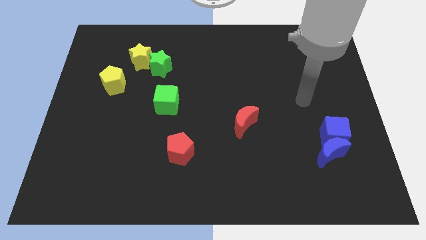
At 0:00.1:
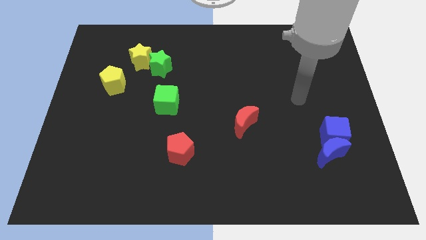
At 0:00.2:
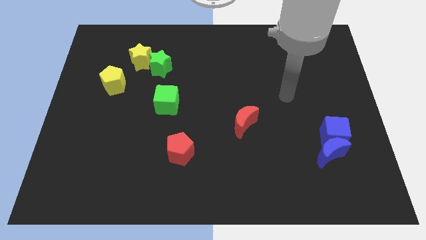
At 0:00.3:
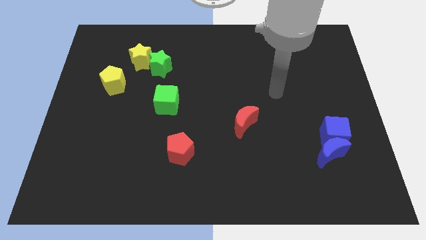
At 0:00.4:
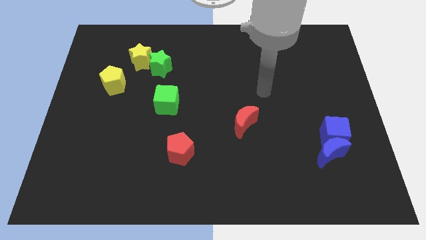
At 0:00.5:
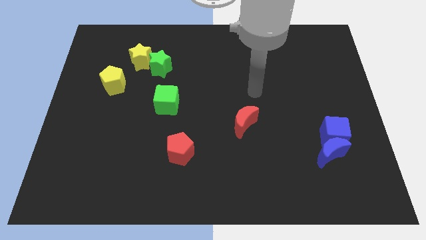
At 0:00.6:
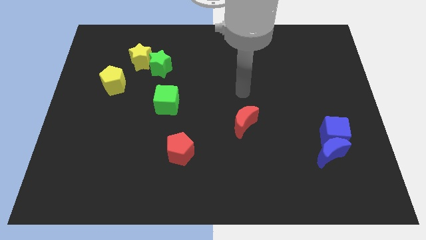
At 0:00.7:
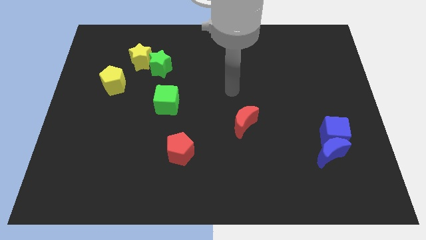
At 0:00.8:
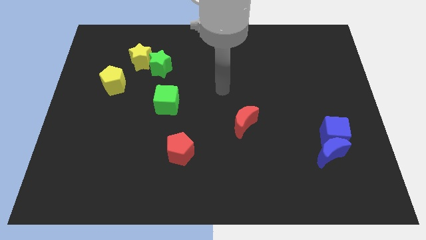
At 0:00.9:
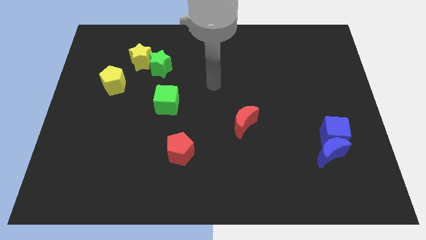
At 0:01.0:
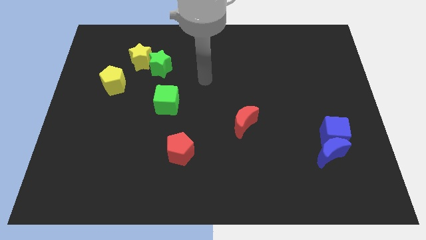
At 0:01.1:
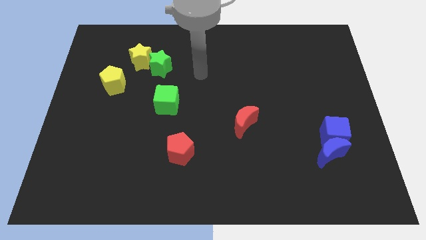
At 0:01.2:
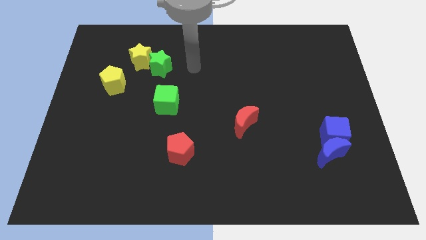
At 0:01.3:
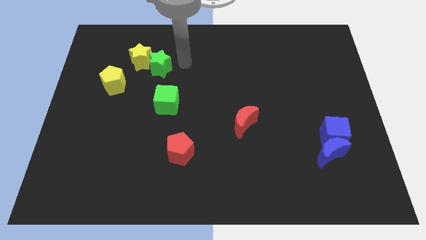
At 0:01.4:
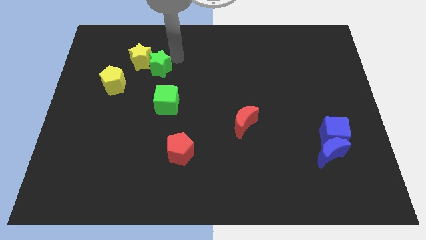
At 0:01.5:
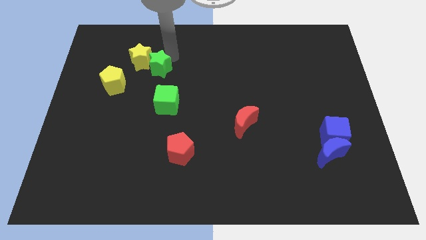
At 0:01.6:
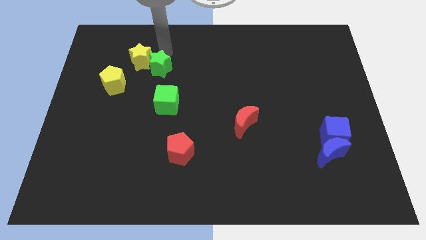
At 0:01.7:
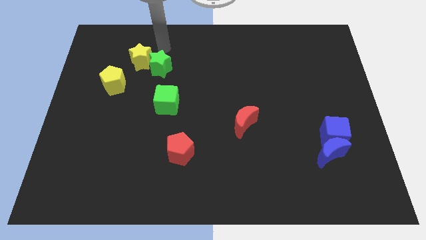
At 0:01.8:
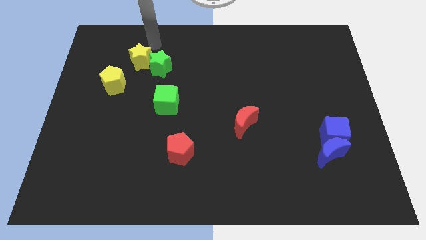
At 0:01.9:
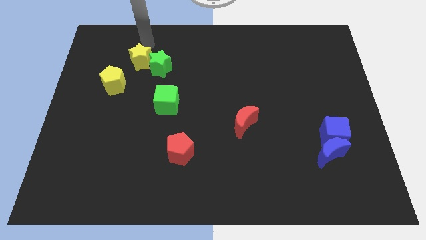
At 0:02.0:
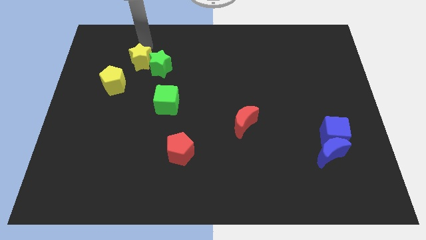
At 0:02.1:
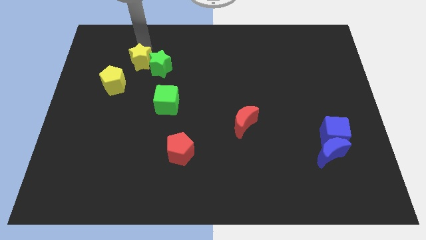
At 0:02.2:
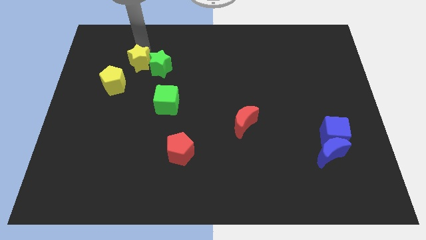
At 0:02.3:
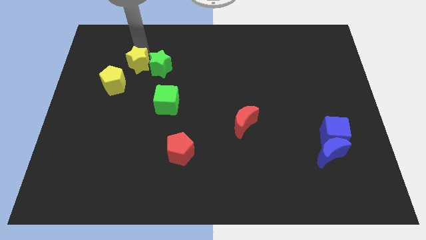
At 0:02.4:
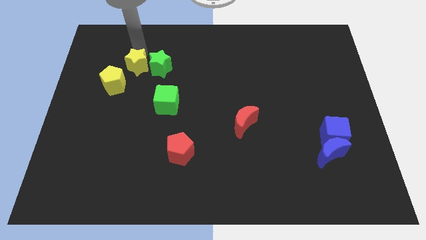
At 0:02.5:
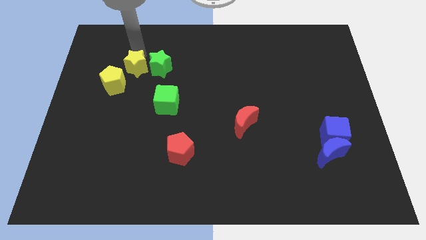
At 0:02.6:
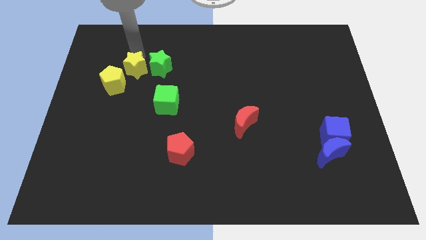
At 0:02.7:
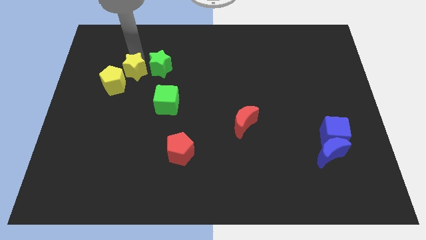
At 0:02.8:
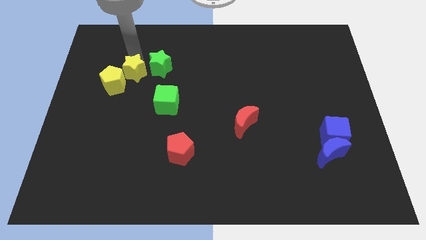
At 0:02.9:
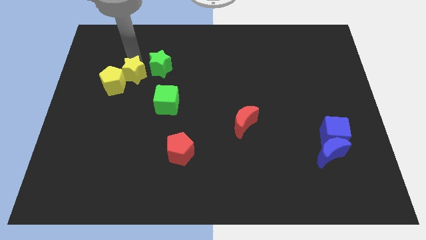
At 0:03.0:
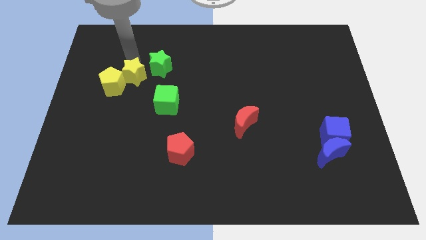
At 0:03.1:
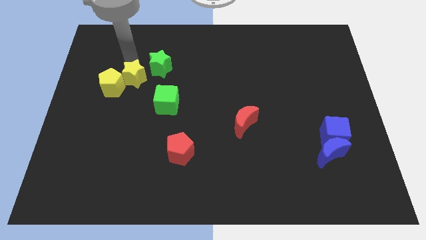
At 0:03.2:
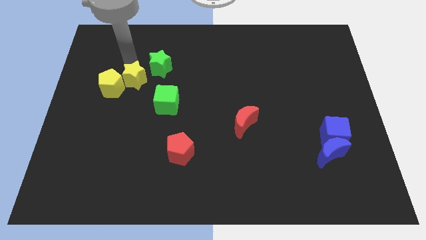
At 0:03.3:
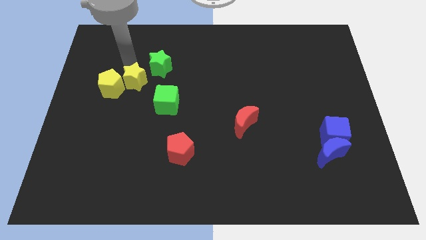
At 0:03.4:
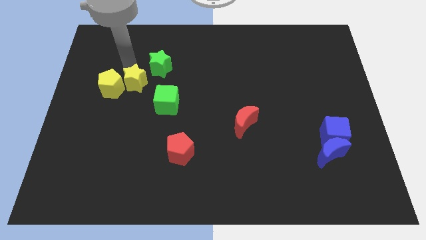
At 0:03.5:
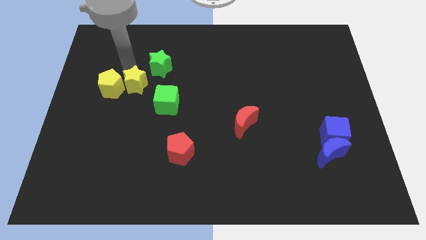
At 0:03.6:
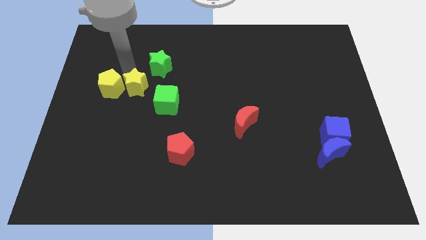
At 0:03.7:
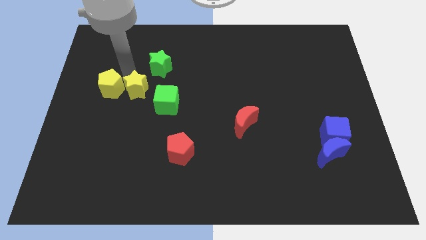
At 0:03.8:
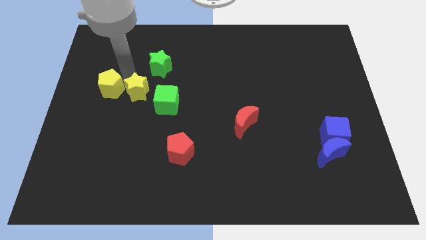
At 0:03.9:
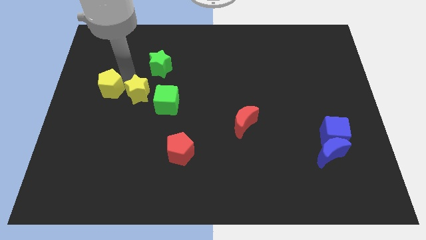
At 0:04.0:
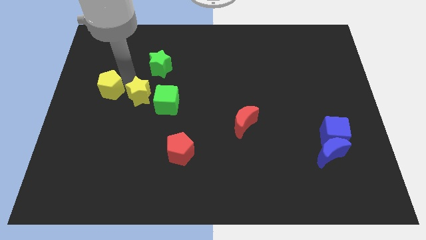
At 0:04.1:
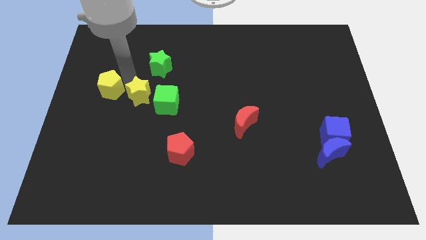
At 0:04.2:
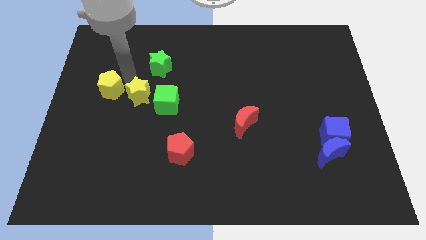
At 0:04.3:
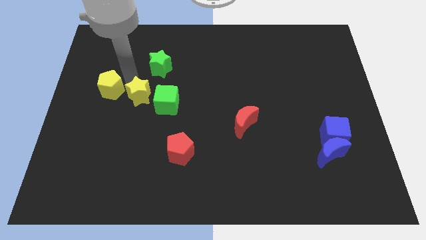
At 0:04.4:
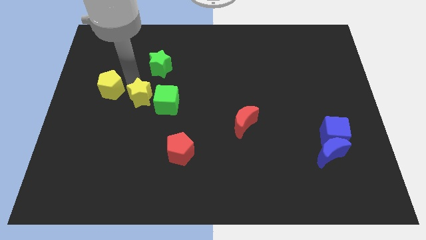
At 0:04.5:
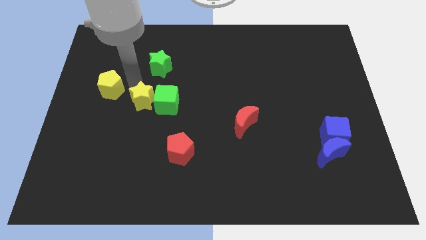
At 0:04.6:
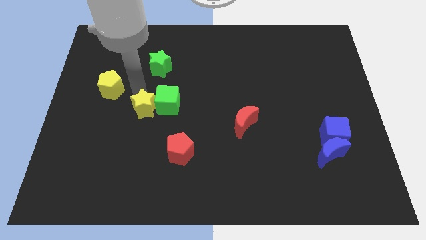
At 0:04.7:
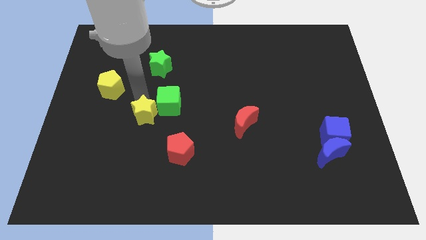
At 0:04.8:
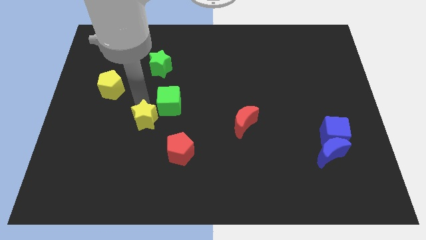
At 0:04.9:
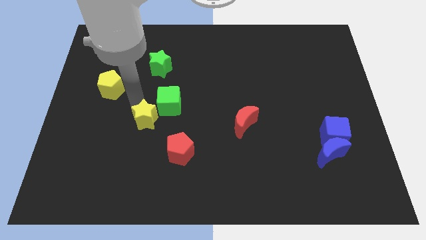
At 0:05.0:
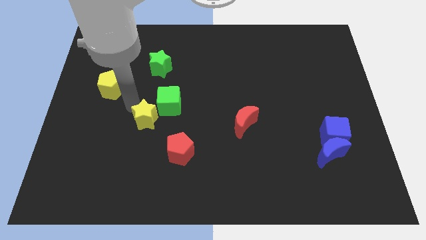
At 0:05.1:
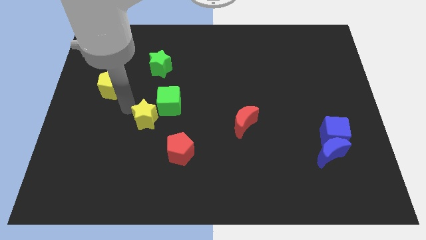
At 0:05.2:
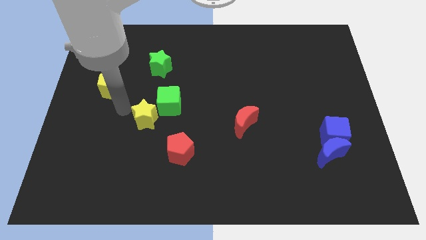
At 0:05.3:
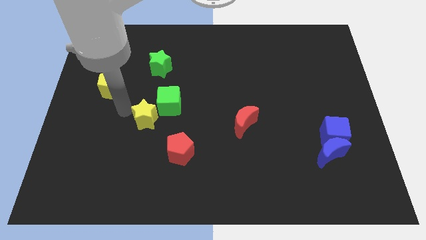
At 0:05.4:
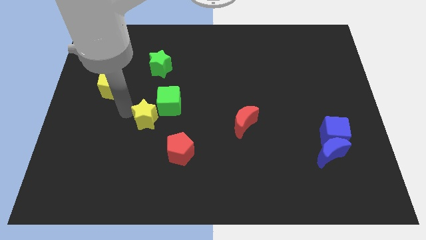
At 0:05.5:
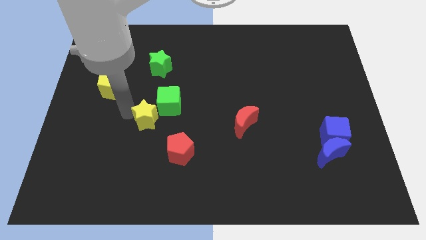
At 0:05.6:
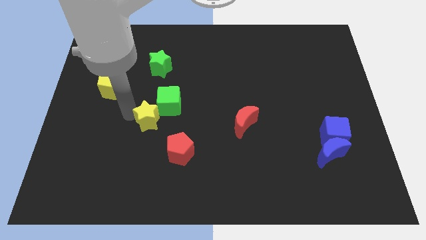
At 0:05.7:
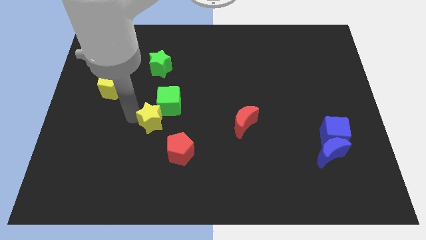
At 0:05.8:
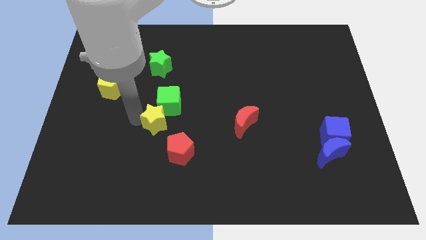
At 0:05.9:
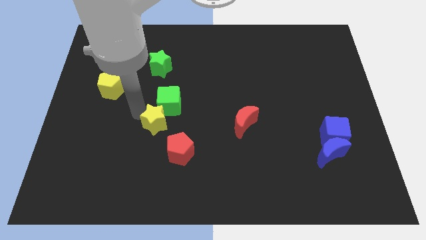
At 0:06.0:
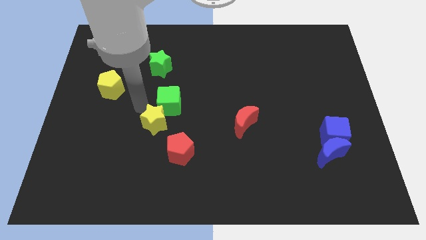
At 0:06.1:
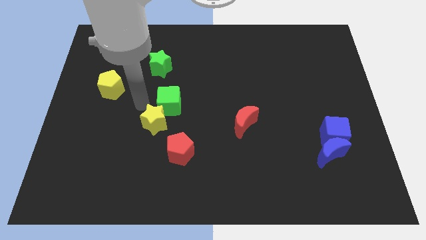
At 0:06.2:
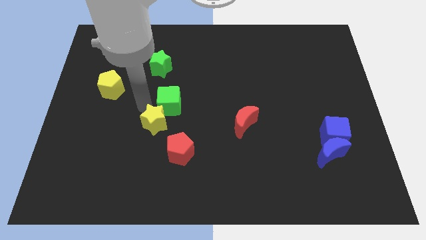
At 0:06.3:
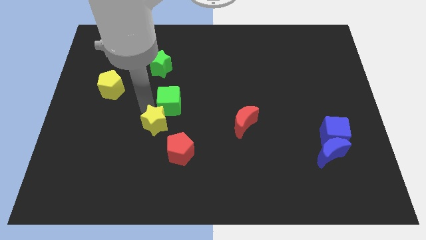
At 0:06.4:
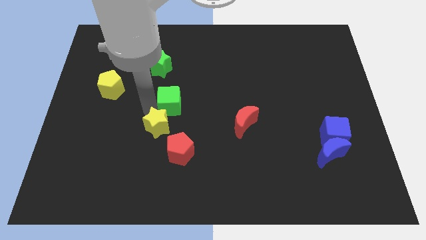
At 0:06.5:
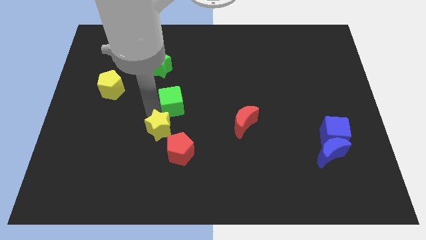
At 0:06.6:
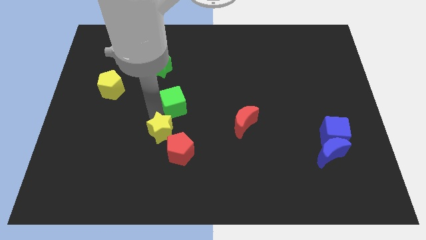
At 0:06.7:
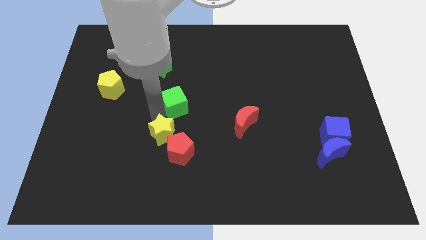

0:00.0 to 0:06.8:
put the yellow star next to the red pentagon

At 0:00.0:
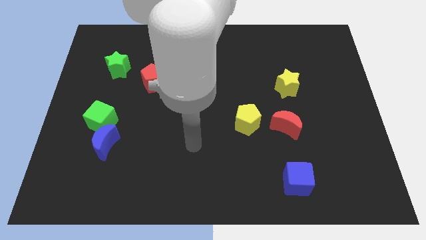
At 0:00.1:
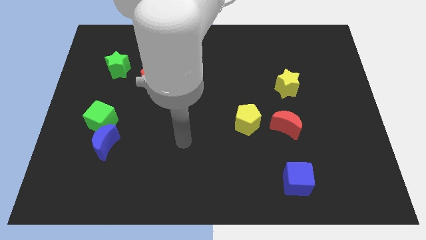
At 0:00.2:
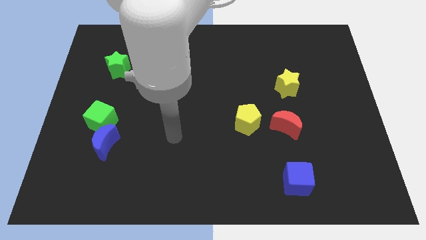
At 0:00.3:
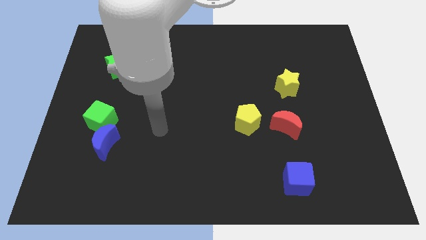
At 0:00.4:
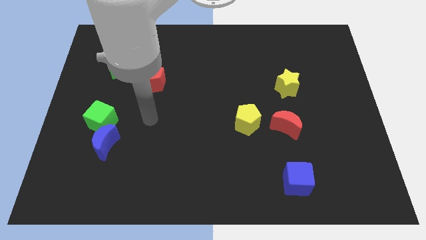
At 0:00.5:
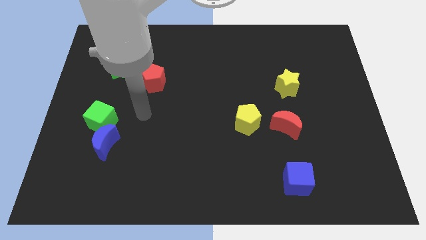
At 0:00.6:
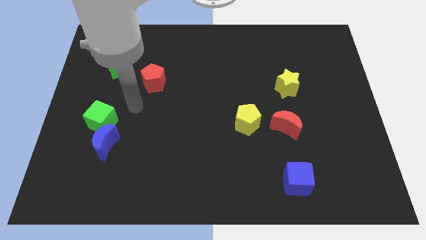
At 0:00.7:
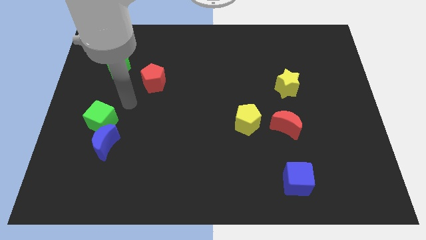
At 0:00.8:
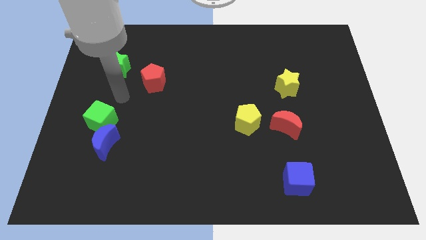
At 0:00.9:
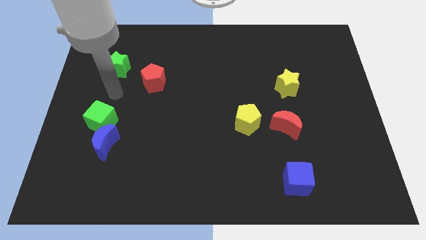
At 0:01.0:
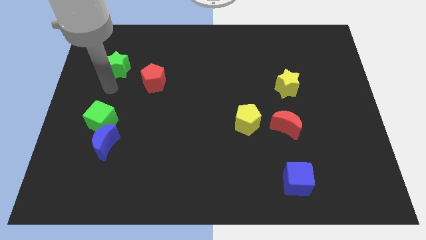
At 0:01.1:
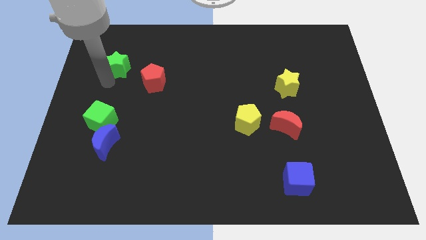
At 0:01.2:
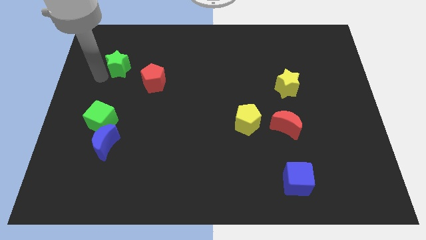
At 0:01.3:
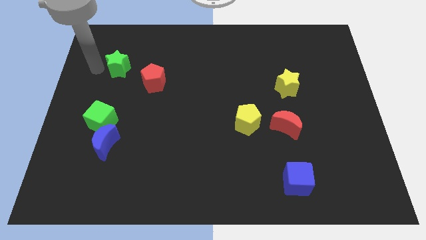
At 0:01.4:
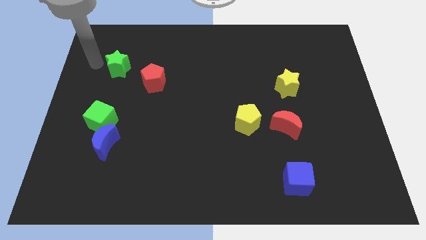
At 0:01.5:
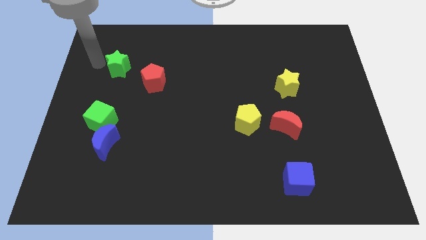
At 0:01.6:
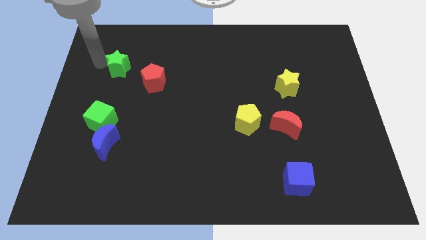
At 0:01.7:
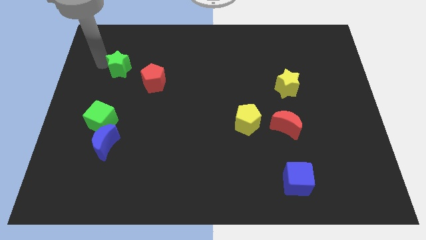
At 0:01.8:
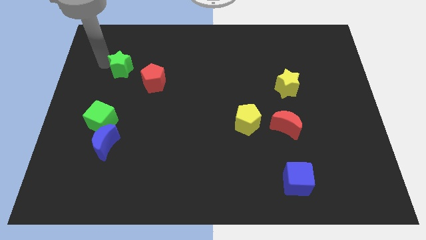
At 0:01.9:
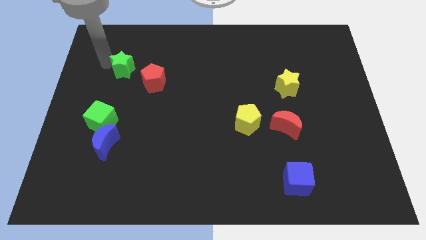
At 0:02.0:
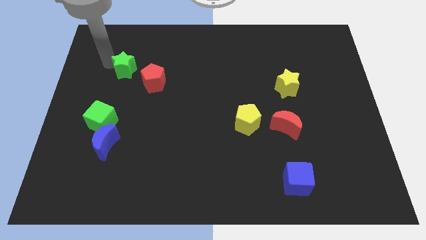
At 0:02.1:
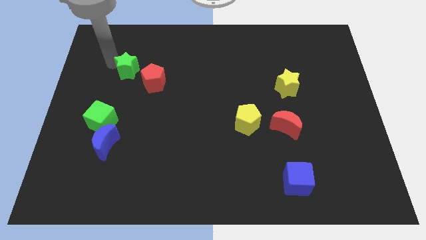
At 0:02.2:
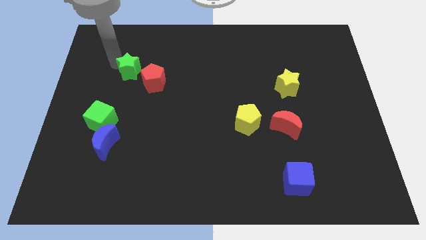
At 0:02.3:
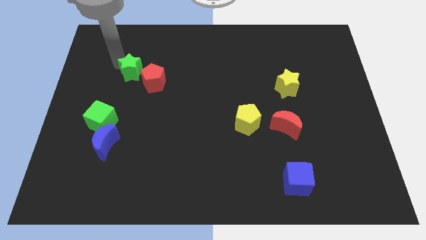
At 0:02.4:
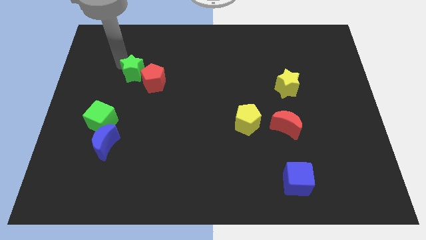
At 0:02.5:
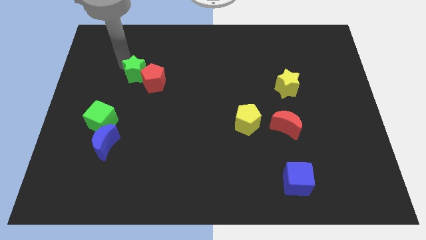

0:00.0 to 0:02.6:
push the green star to the red pentagon
